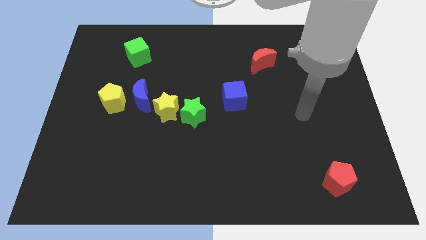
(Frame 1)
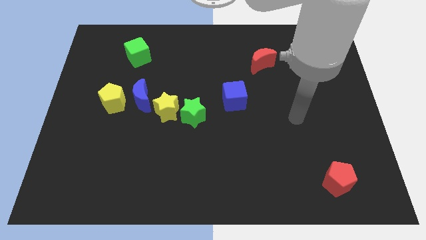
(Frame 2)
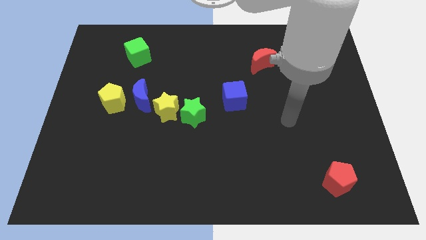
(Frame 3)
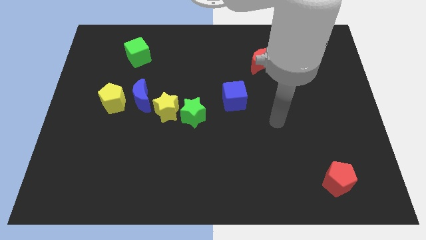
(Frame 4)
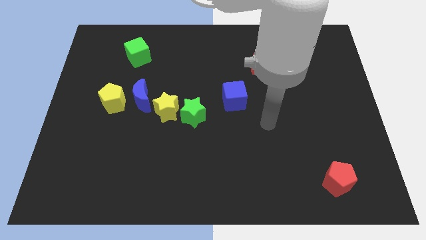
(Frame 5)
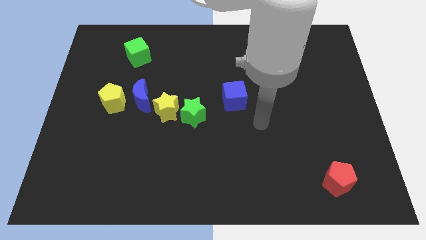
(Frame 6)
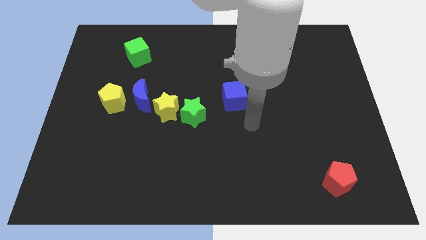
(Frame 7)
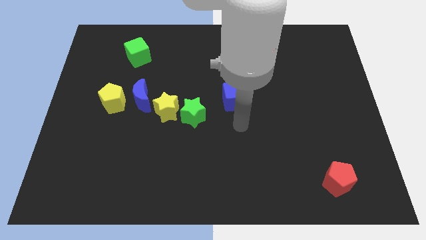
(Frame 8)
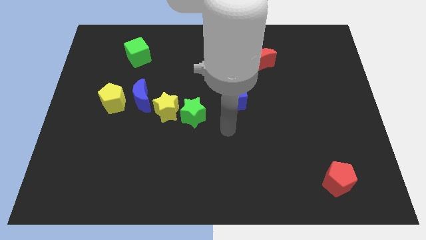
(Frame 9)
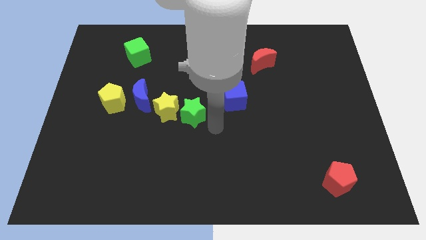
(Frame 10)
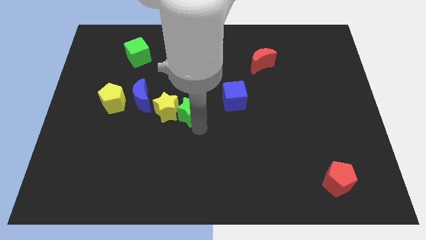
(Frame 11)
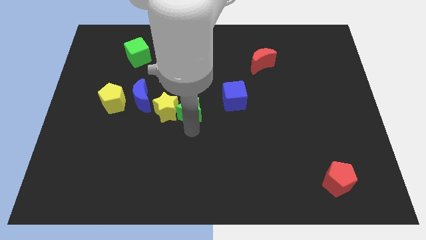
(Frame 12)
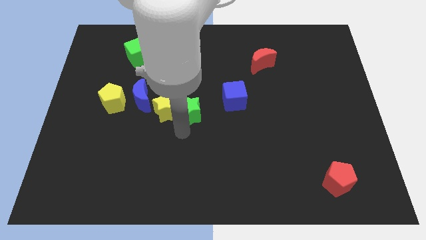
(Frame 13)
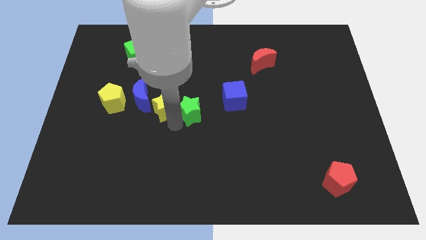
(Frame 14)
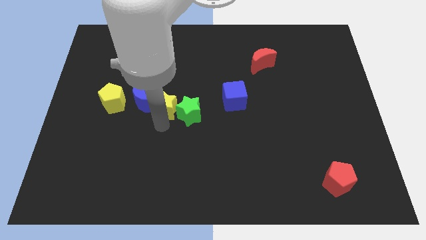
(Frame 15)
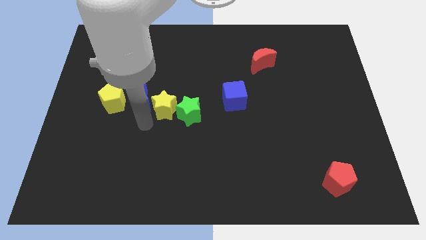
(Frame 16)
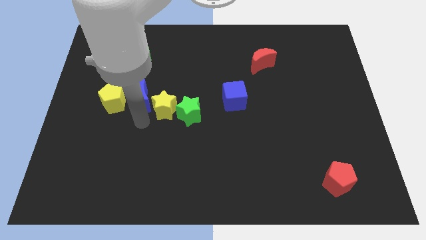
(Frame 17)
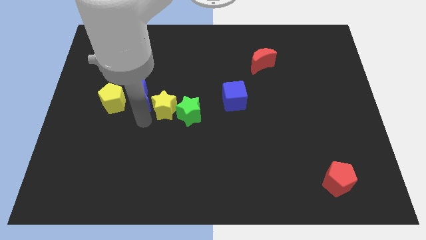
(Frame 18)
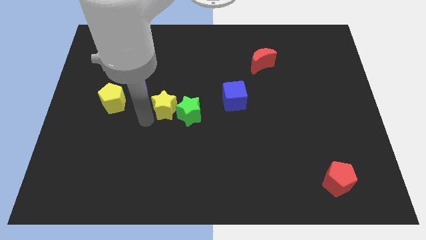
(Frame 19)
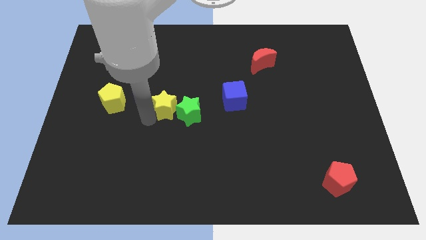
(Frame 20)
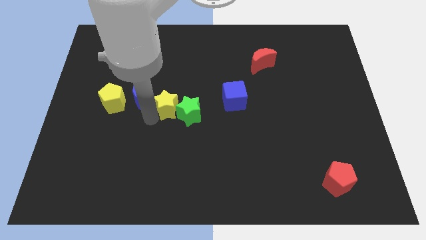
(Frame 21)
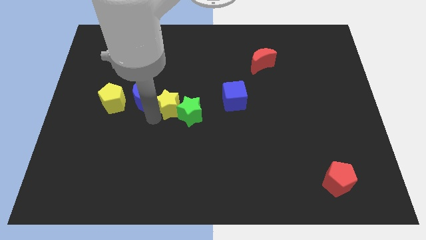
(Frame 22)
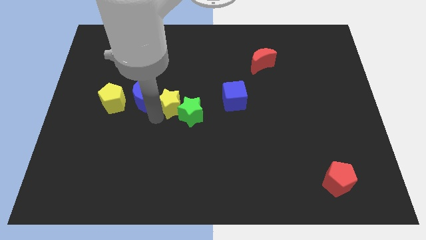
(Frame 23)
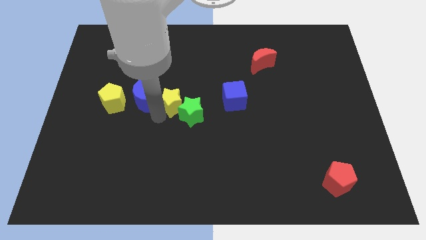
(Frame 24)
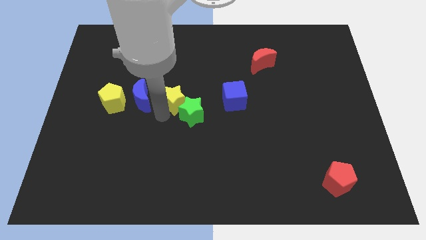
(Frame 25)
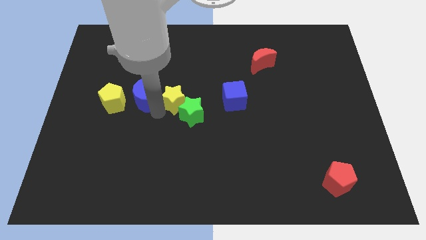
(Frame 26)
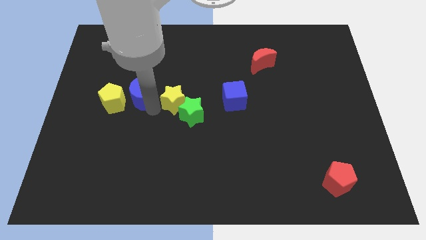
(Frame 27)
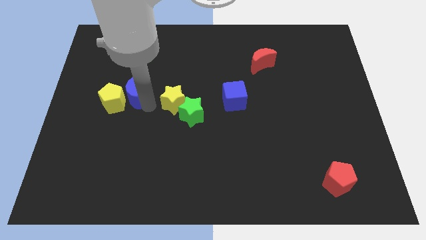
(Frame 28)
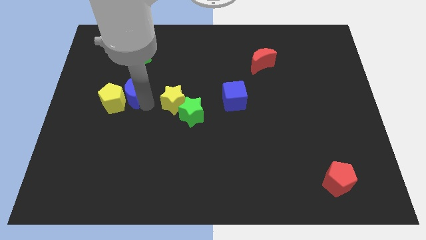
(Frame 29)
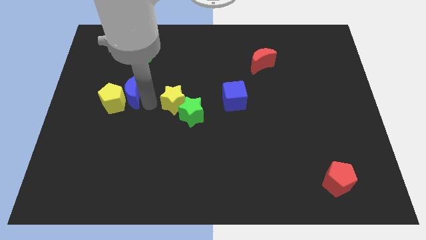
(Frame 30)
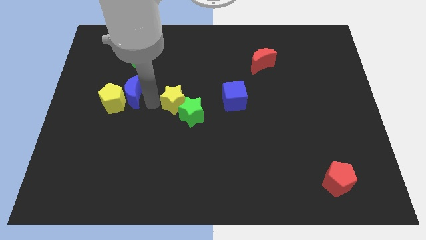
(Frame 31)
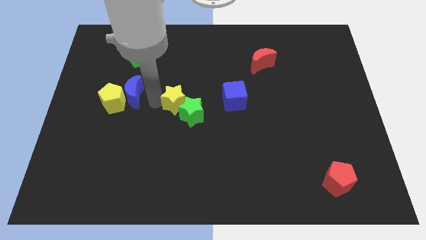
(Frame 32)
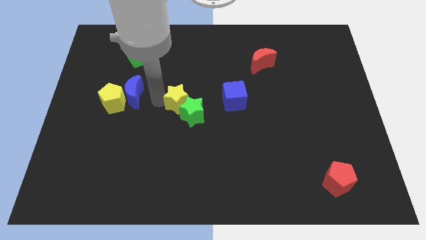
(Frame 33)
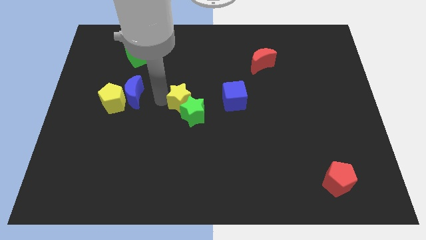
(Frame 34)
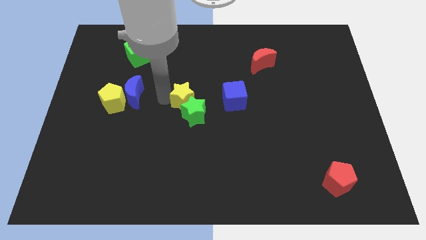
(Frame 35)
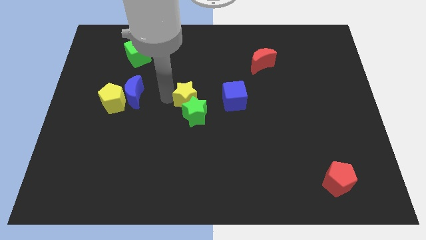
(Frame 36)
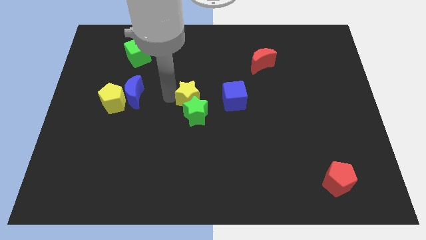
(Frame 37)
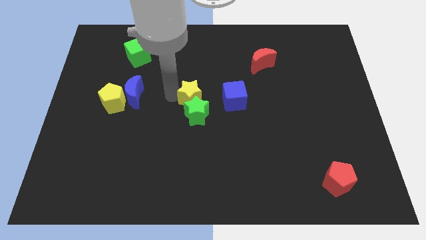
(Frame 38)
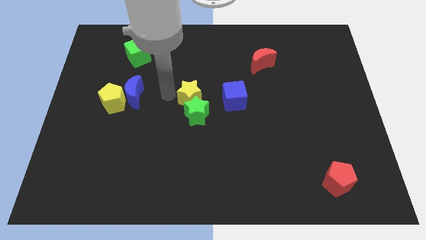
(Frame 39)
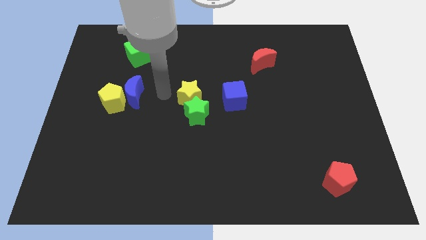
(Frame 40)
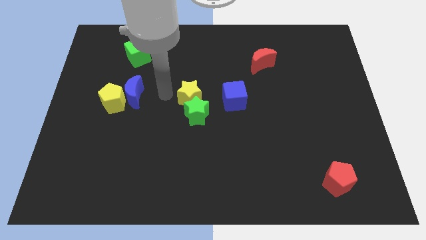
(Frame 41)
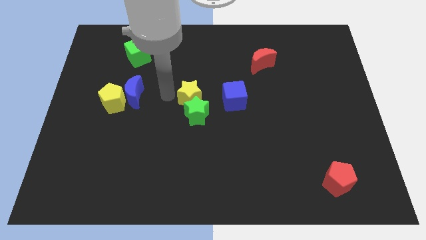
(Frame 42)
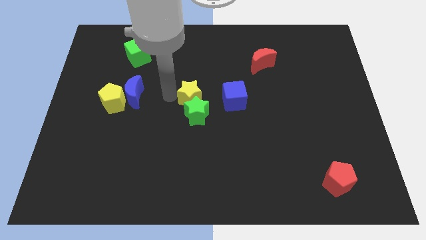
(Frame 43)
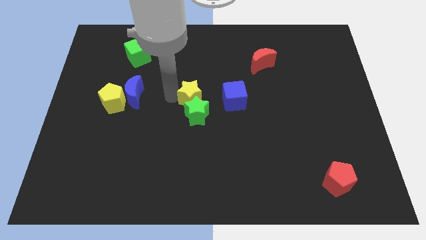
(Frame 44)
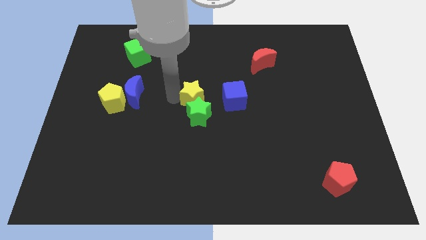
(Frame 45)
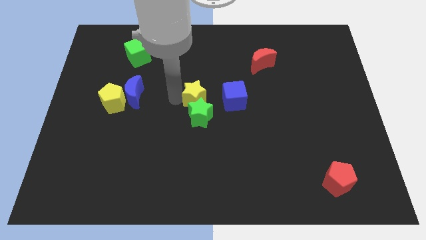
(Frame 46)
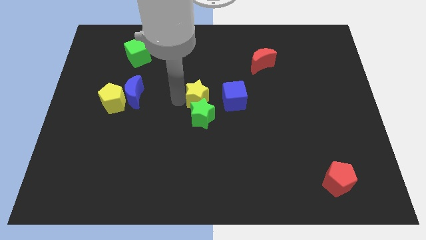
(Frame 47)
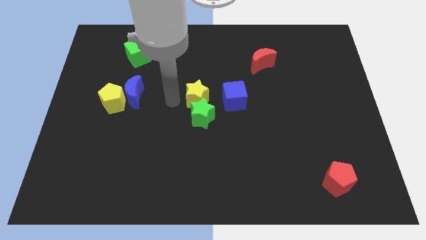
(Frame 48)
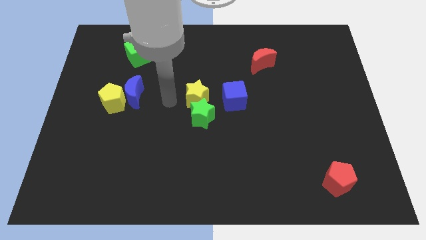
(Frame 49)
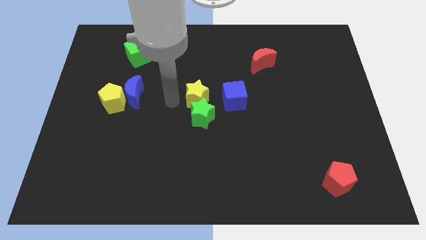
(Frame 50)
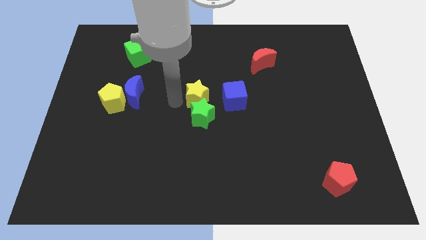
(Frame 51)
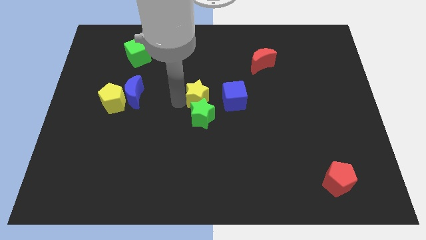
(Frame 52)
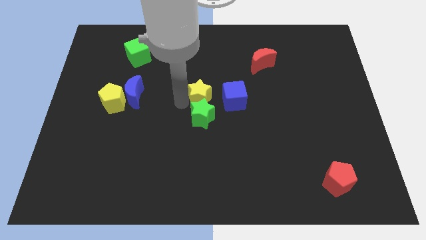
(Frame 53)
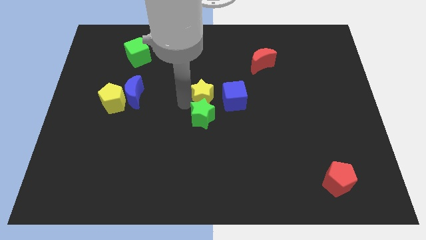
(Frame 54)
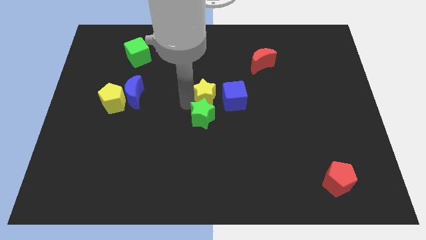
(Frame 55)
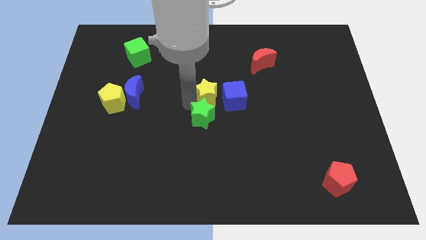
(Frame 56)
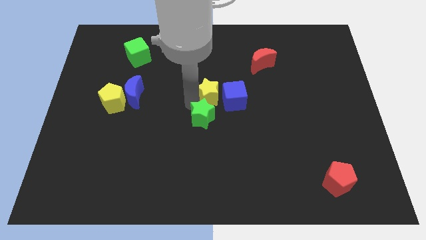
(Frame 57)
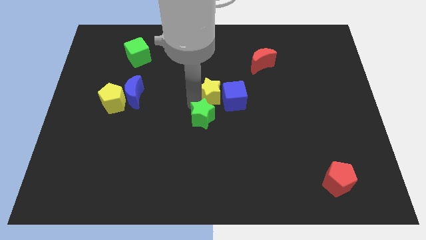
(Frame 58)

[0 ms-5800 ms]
push the yellow star towards the blue cube

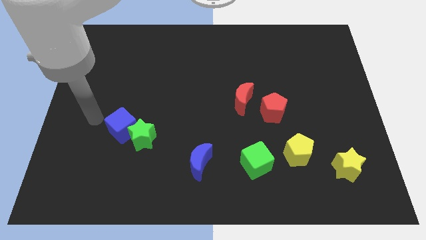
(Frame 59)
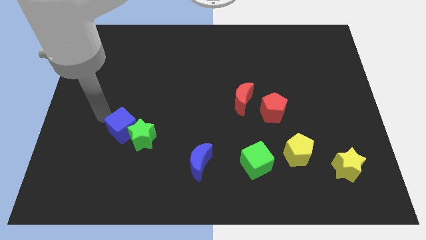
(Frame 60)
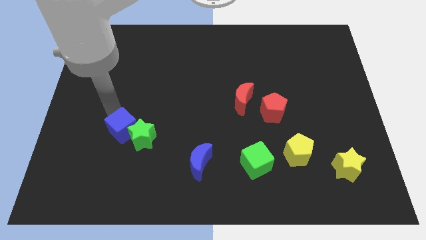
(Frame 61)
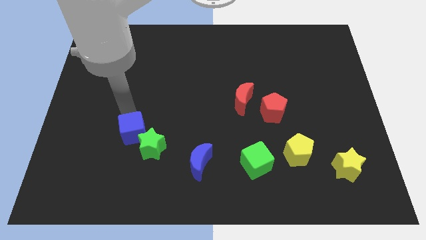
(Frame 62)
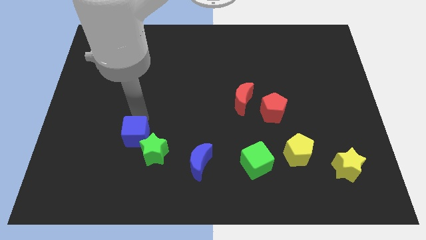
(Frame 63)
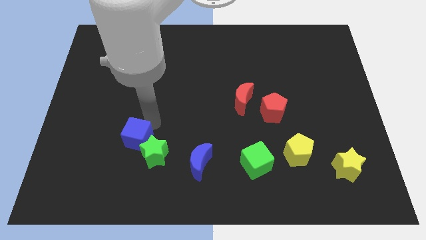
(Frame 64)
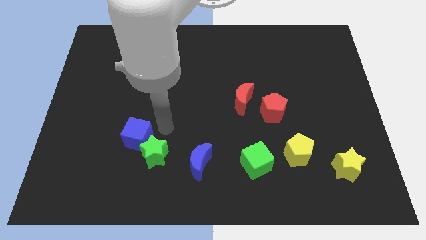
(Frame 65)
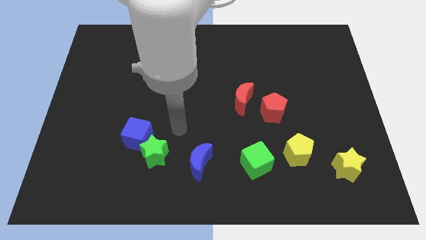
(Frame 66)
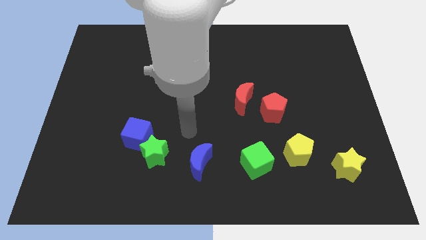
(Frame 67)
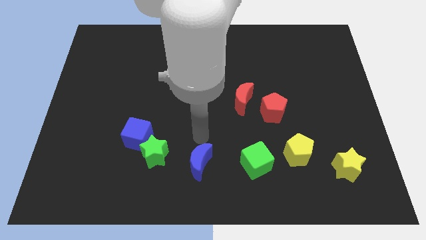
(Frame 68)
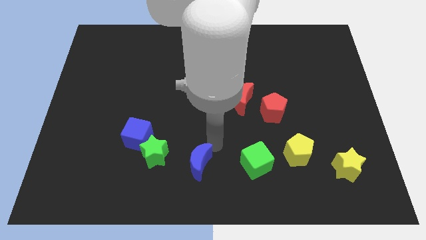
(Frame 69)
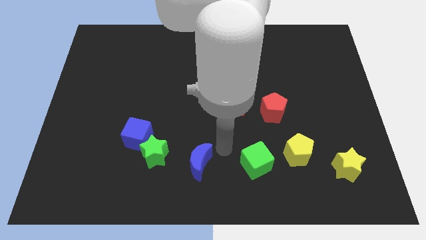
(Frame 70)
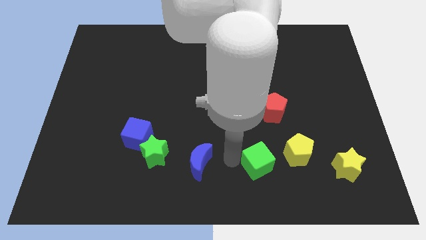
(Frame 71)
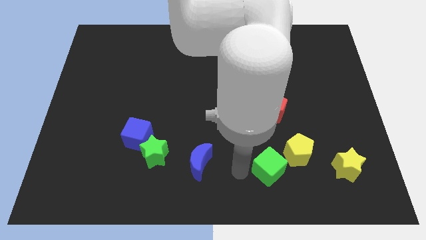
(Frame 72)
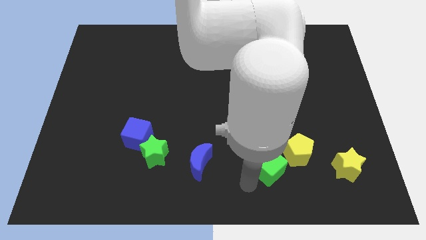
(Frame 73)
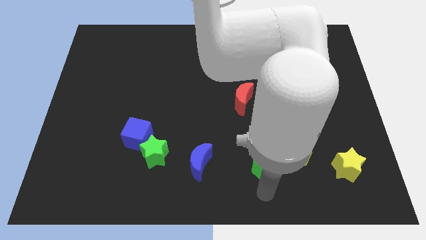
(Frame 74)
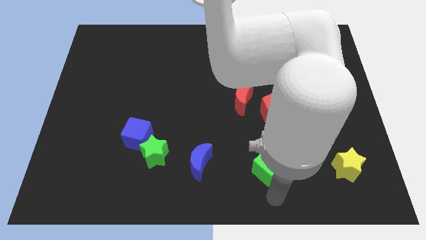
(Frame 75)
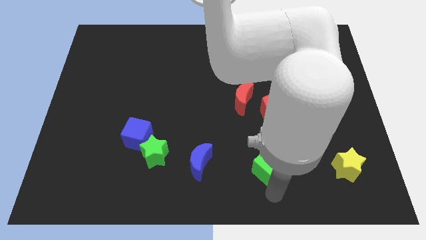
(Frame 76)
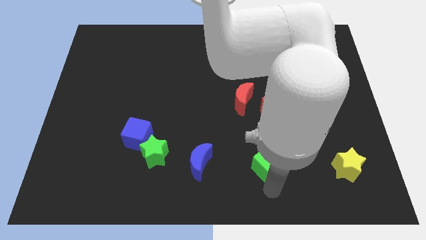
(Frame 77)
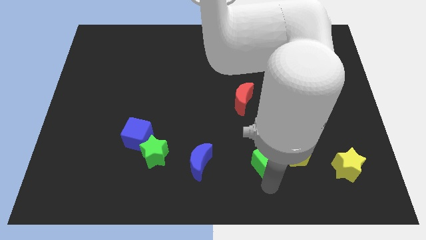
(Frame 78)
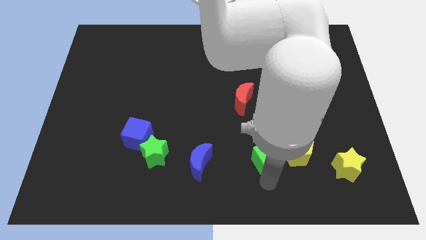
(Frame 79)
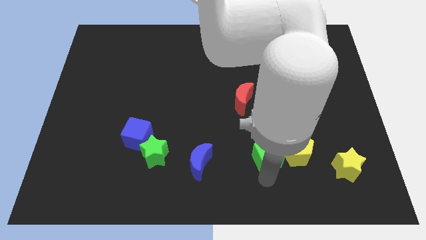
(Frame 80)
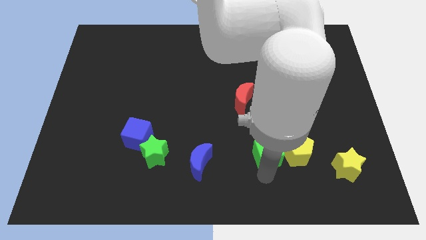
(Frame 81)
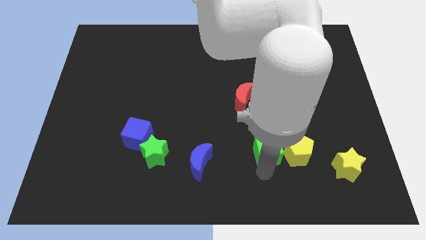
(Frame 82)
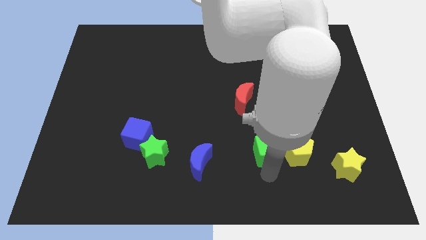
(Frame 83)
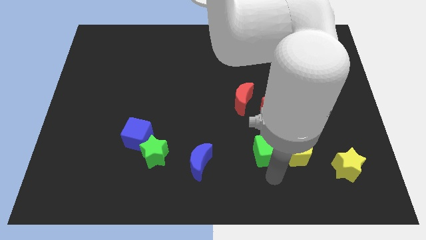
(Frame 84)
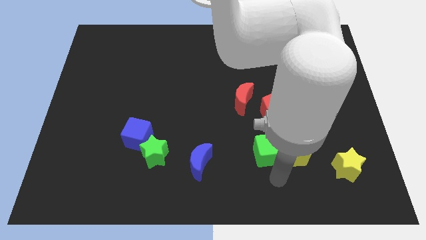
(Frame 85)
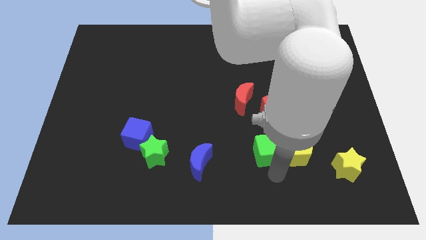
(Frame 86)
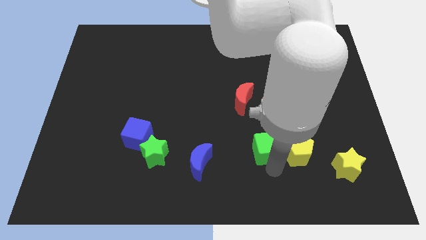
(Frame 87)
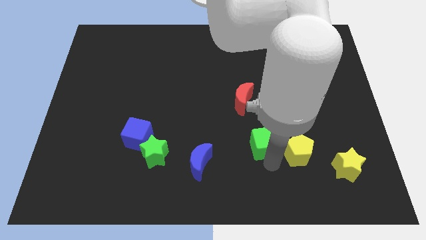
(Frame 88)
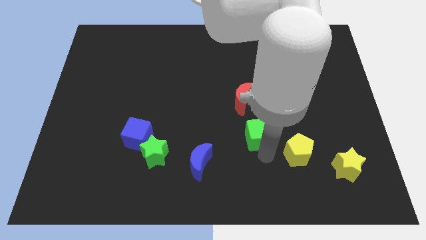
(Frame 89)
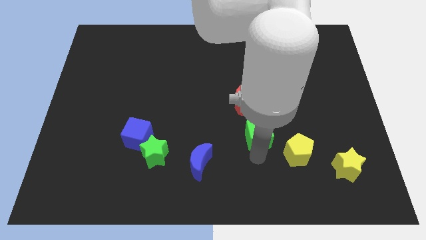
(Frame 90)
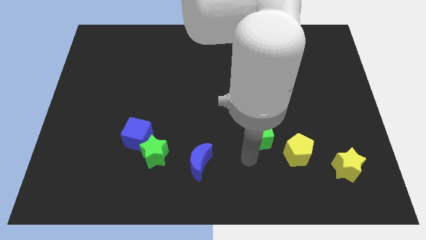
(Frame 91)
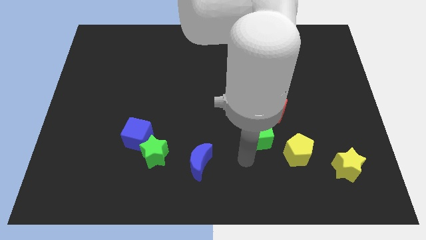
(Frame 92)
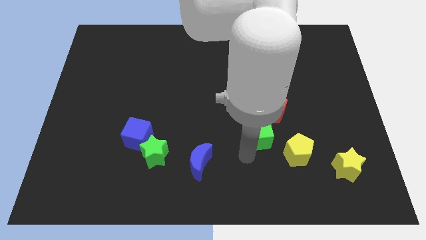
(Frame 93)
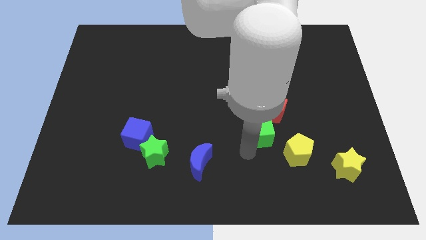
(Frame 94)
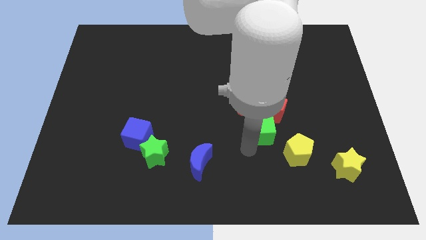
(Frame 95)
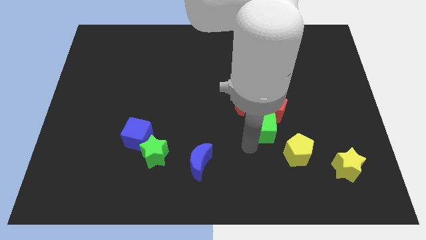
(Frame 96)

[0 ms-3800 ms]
push the green cube next to the red pentagon
